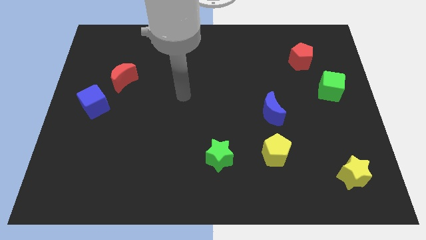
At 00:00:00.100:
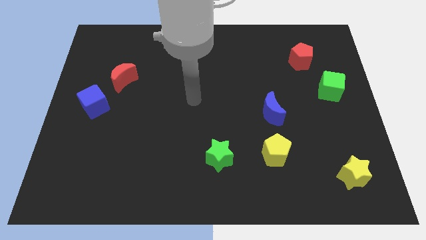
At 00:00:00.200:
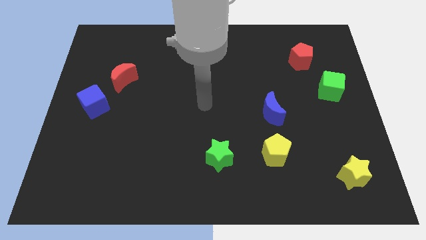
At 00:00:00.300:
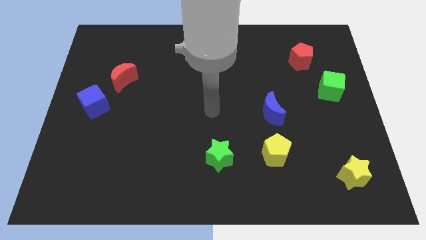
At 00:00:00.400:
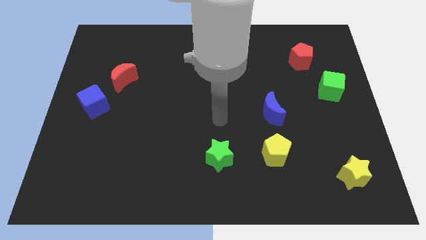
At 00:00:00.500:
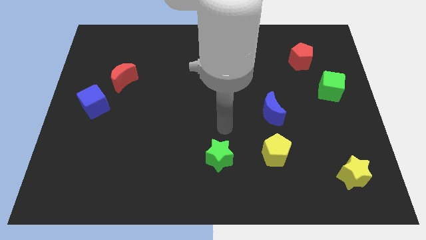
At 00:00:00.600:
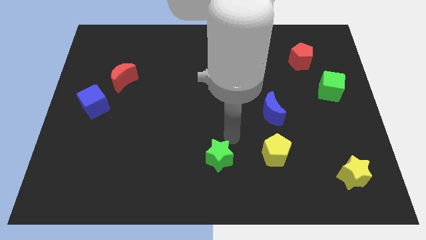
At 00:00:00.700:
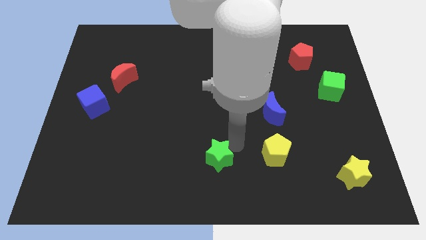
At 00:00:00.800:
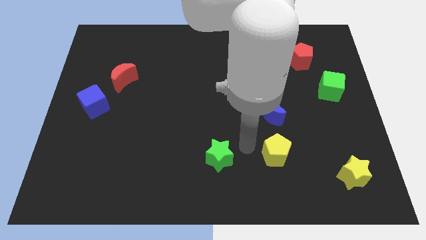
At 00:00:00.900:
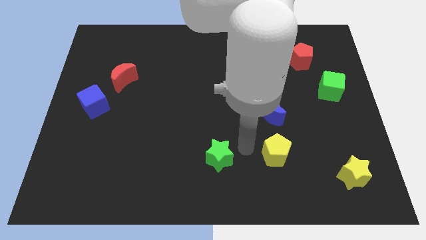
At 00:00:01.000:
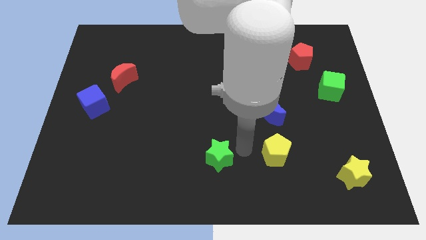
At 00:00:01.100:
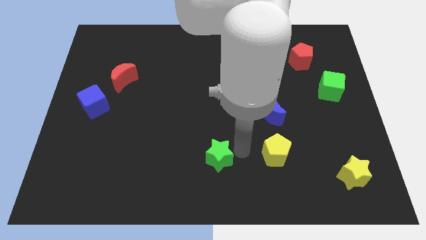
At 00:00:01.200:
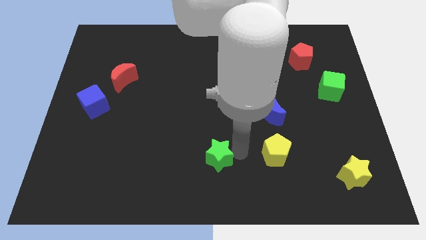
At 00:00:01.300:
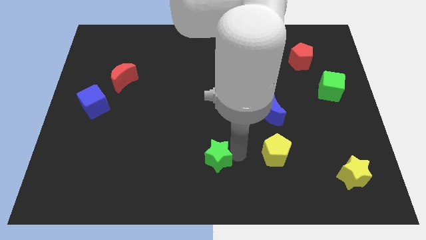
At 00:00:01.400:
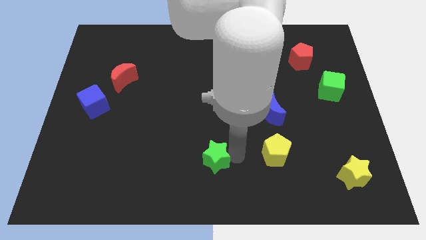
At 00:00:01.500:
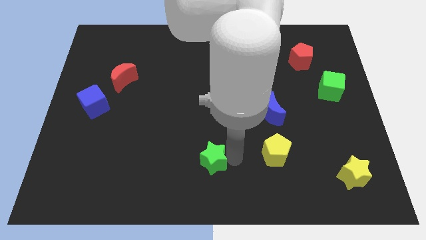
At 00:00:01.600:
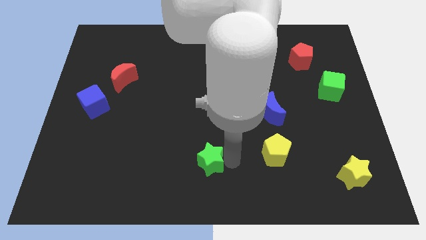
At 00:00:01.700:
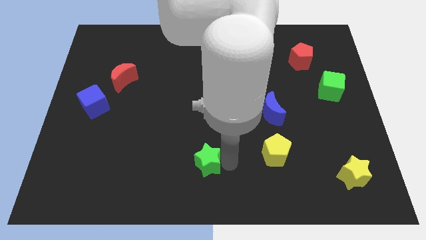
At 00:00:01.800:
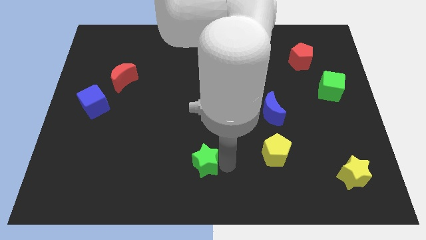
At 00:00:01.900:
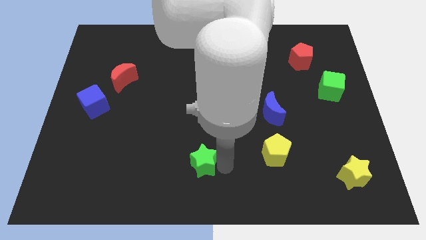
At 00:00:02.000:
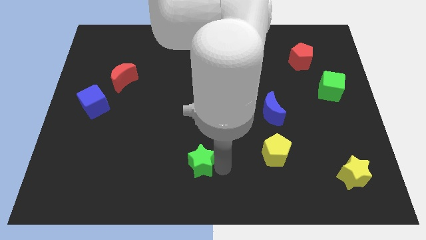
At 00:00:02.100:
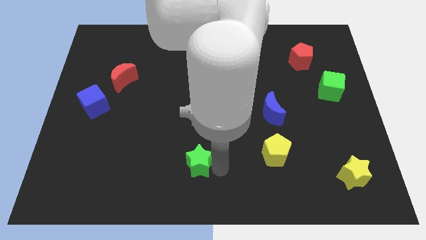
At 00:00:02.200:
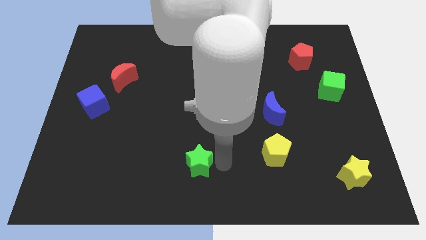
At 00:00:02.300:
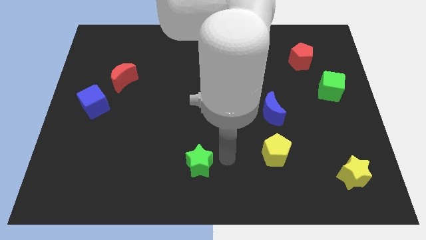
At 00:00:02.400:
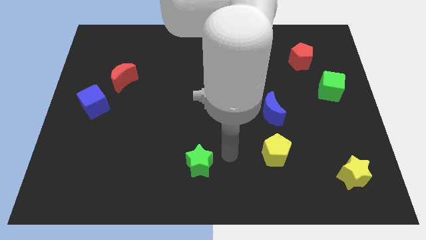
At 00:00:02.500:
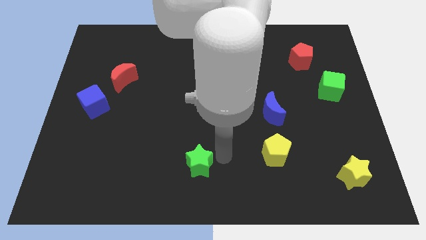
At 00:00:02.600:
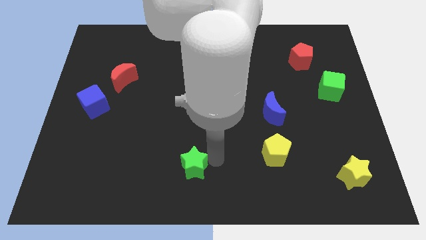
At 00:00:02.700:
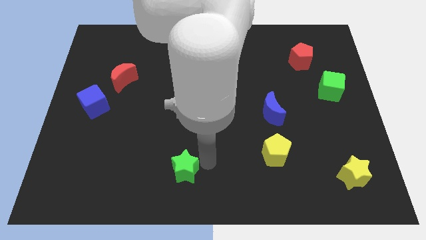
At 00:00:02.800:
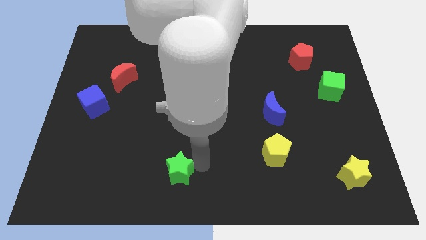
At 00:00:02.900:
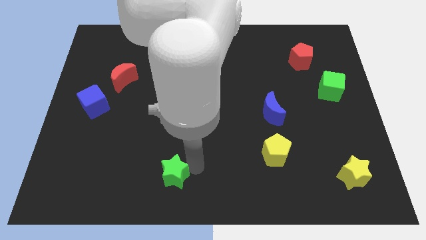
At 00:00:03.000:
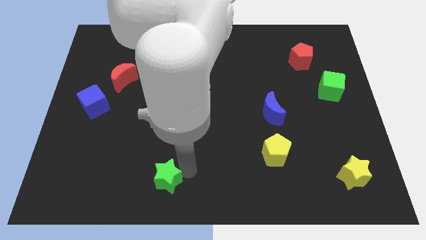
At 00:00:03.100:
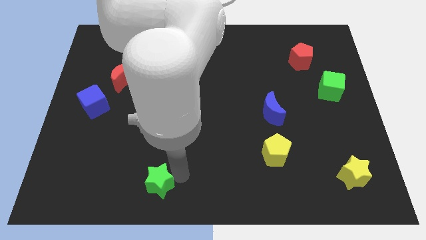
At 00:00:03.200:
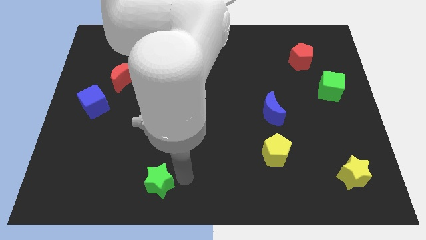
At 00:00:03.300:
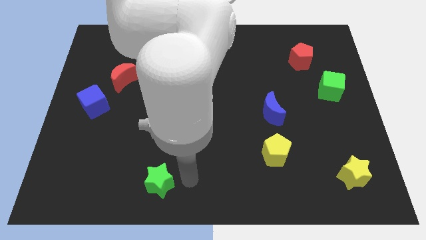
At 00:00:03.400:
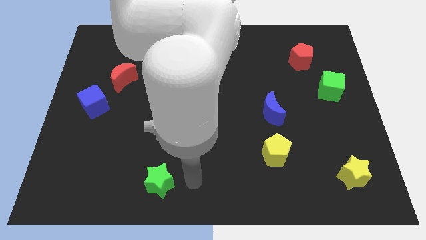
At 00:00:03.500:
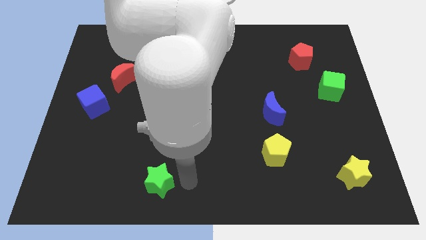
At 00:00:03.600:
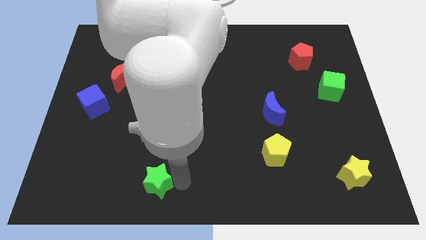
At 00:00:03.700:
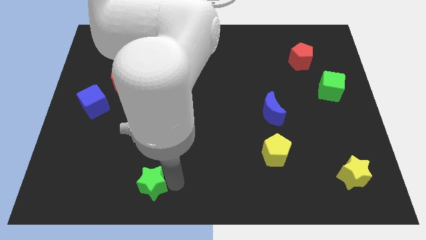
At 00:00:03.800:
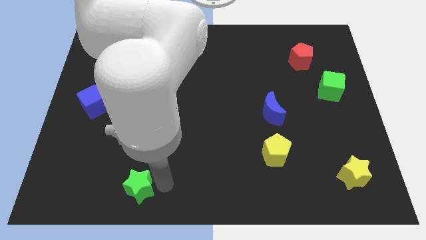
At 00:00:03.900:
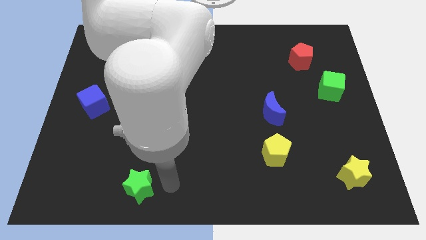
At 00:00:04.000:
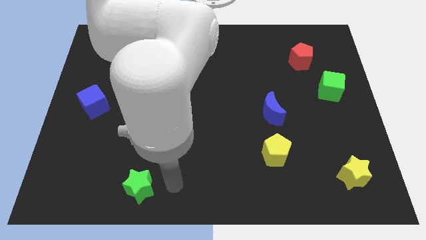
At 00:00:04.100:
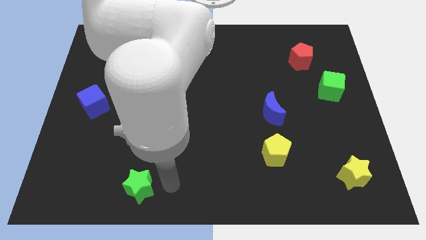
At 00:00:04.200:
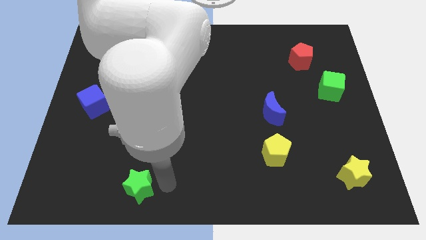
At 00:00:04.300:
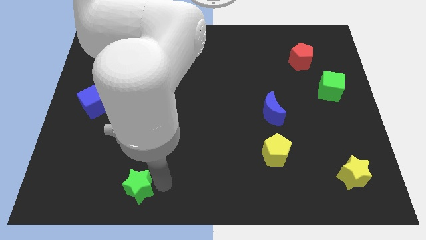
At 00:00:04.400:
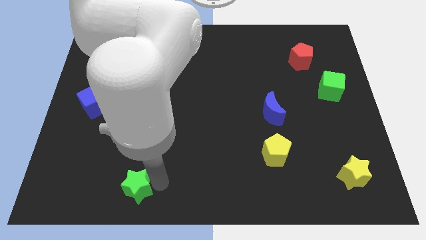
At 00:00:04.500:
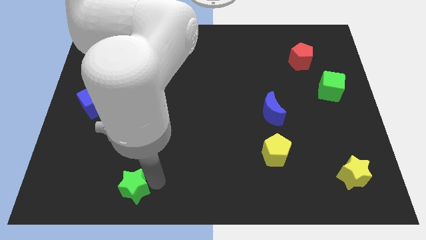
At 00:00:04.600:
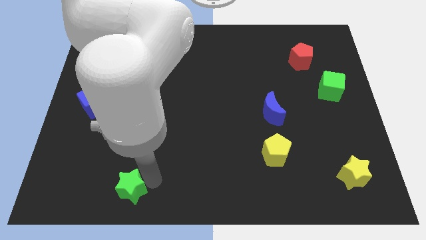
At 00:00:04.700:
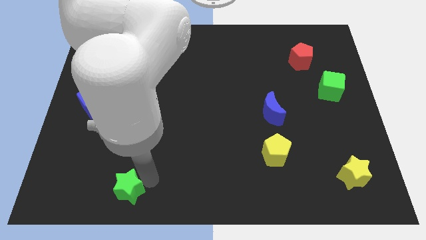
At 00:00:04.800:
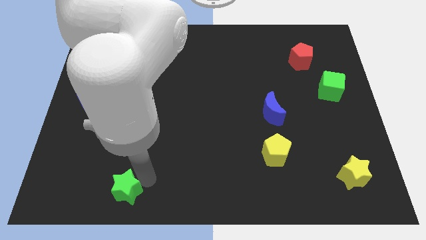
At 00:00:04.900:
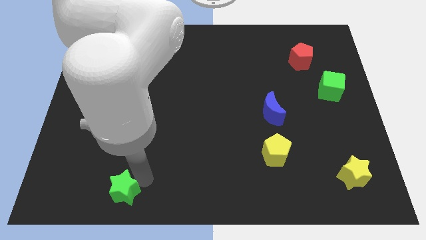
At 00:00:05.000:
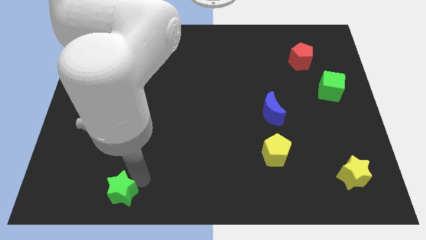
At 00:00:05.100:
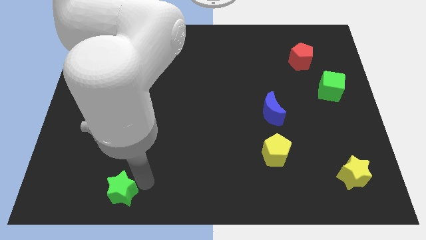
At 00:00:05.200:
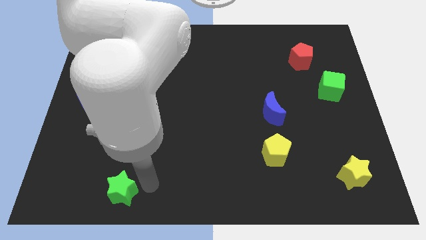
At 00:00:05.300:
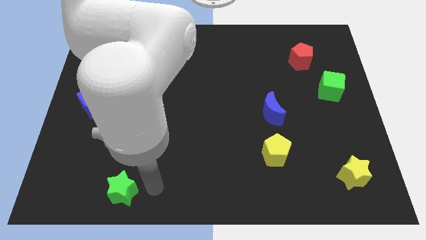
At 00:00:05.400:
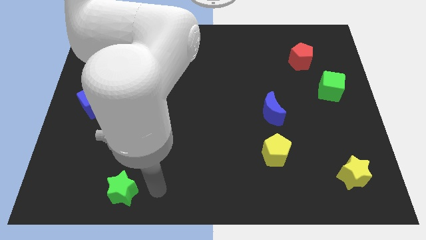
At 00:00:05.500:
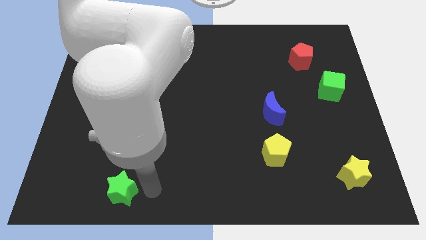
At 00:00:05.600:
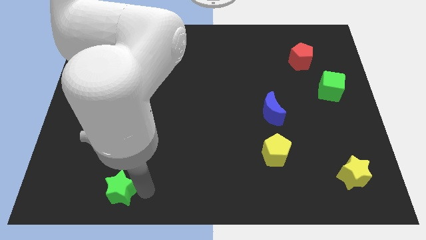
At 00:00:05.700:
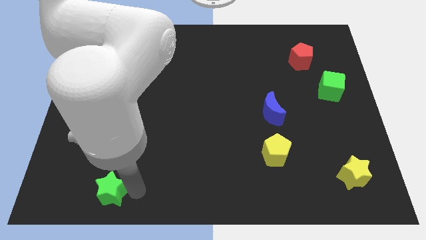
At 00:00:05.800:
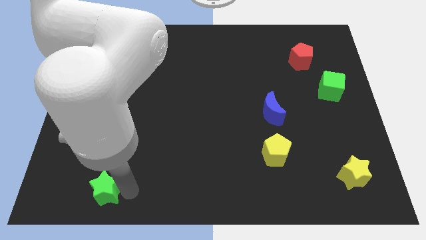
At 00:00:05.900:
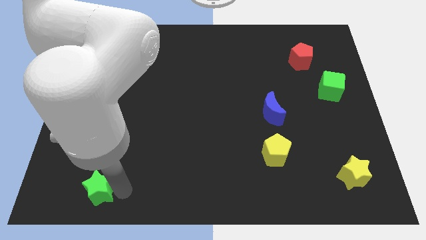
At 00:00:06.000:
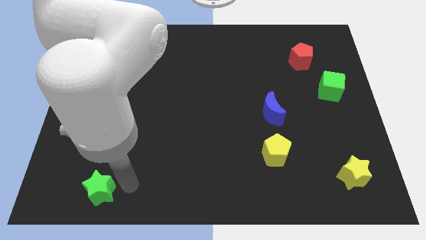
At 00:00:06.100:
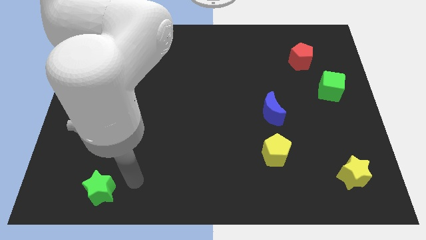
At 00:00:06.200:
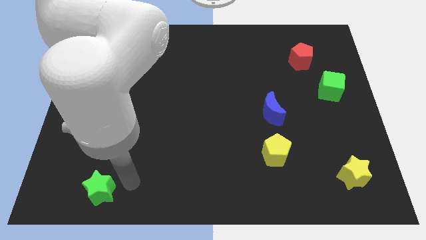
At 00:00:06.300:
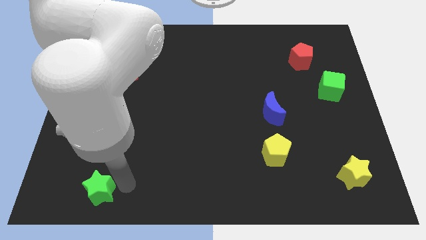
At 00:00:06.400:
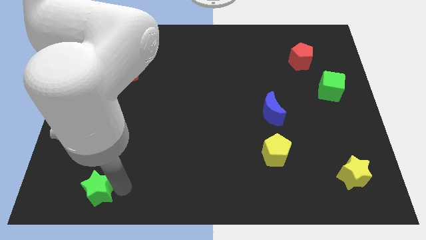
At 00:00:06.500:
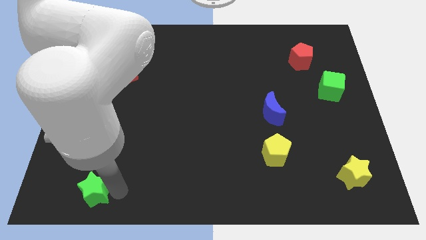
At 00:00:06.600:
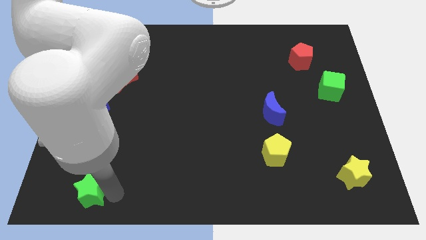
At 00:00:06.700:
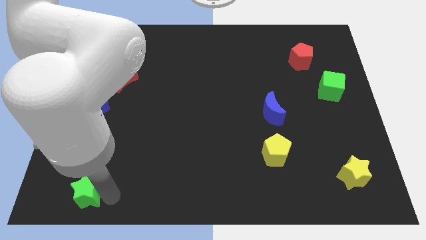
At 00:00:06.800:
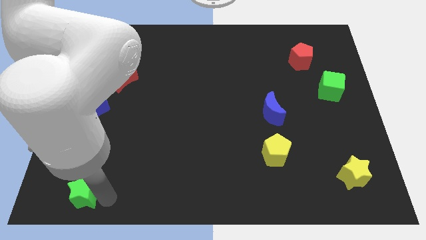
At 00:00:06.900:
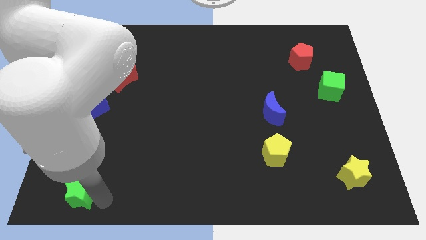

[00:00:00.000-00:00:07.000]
push the green star to the bottom left of the board
